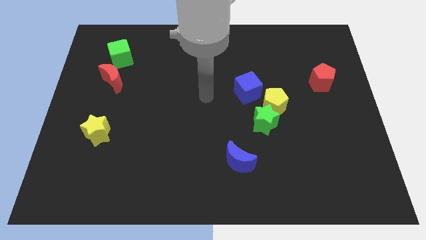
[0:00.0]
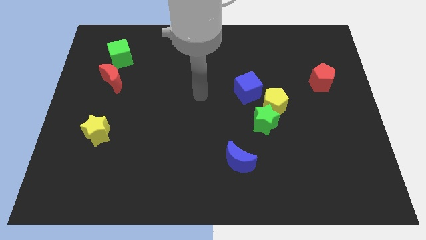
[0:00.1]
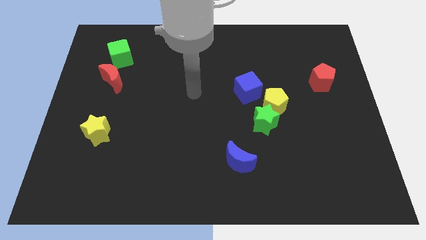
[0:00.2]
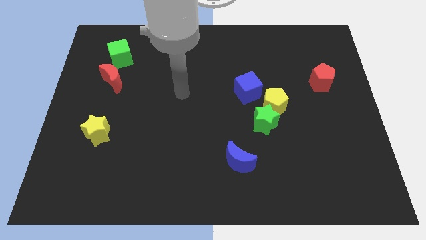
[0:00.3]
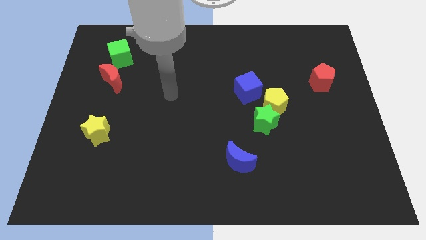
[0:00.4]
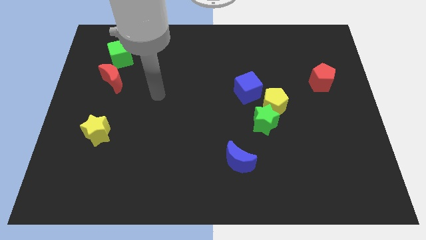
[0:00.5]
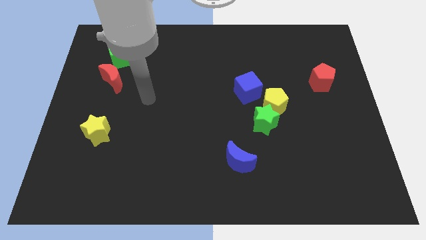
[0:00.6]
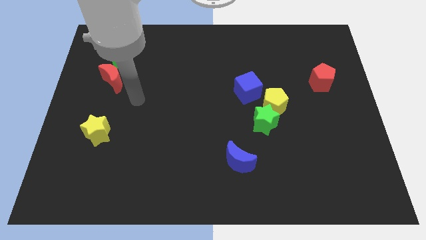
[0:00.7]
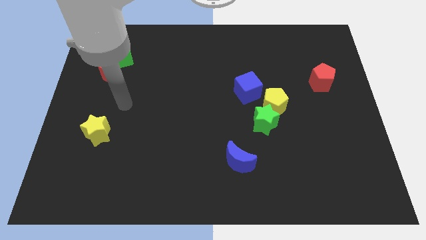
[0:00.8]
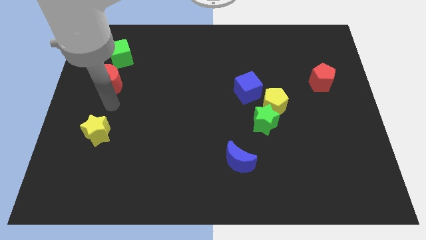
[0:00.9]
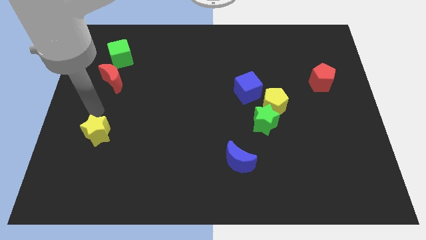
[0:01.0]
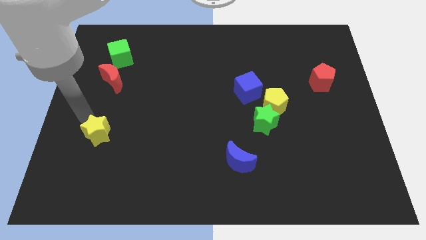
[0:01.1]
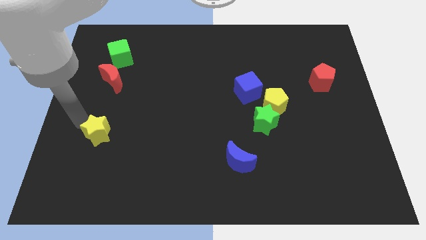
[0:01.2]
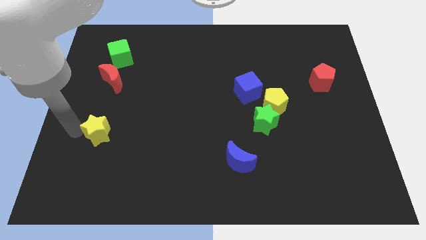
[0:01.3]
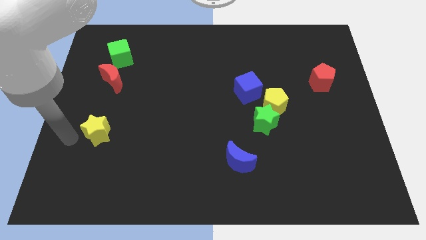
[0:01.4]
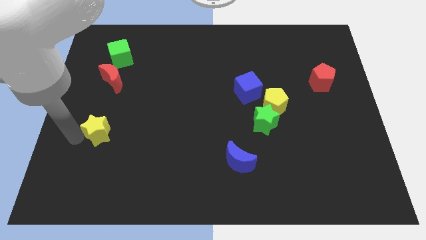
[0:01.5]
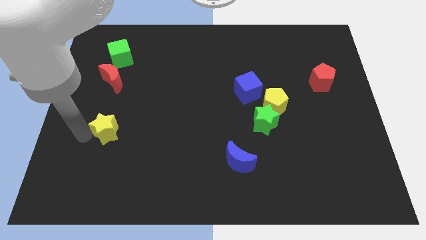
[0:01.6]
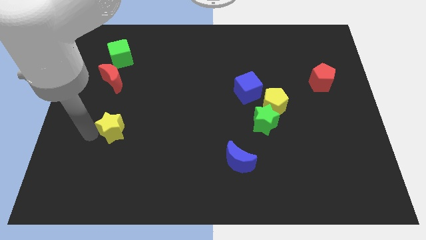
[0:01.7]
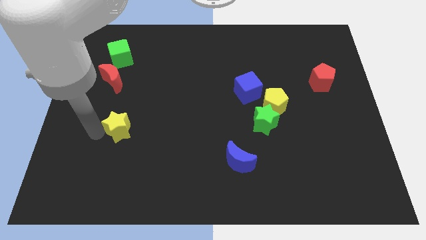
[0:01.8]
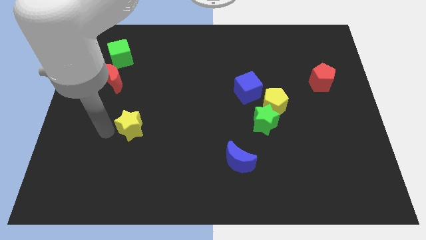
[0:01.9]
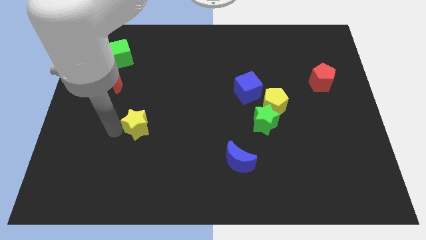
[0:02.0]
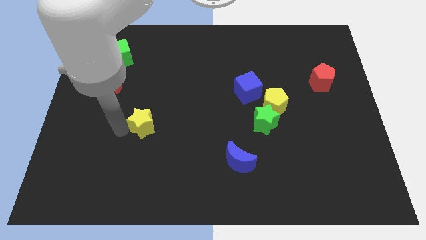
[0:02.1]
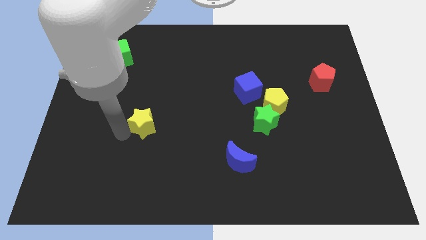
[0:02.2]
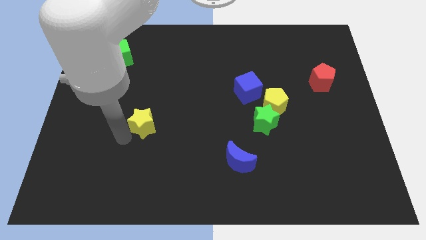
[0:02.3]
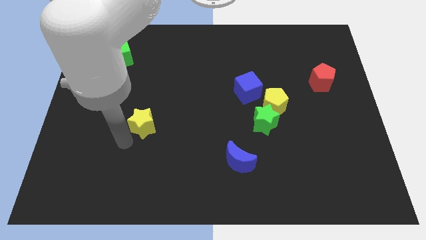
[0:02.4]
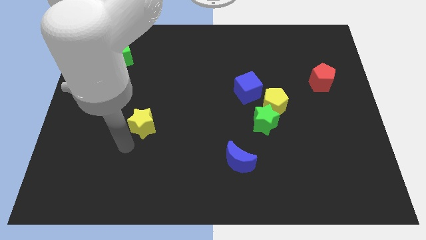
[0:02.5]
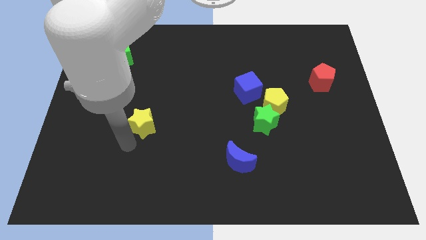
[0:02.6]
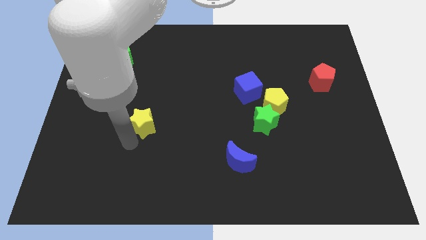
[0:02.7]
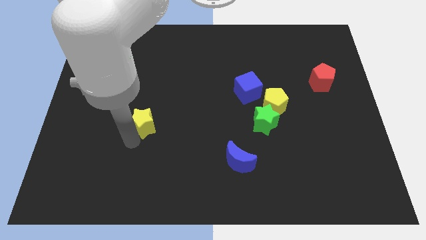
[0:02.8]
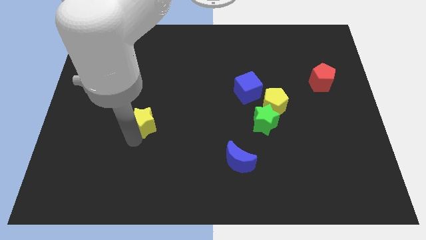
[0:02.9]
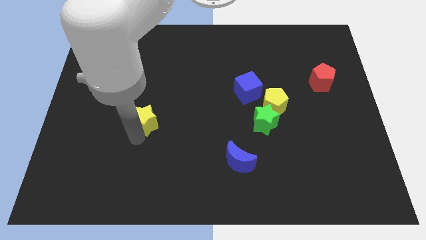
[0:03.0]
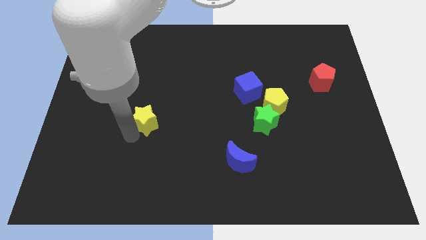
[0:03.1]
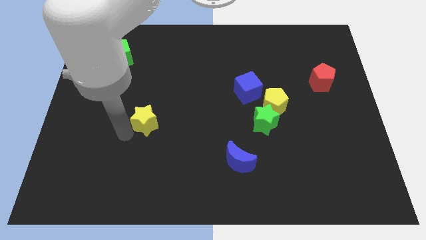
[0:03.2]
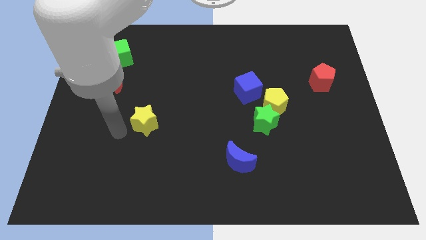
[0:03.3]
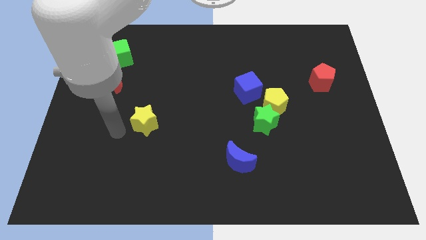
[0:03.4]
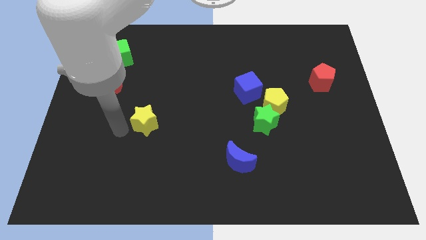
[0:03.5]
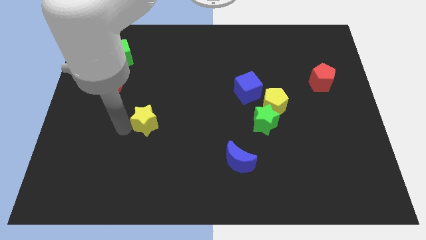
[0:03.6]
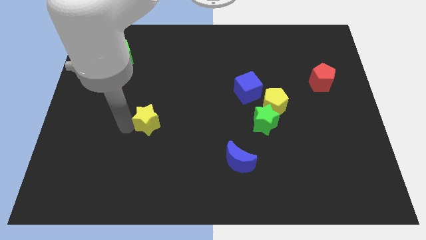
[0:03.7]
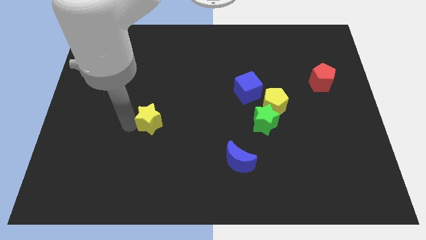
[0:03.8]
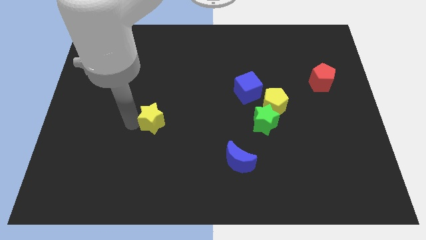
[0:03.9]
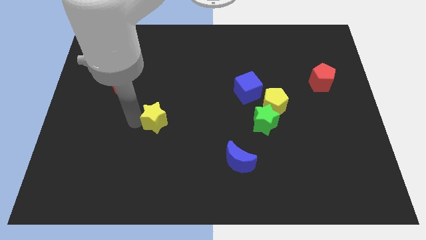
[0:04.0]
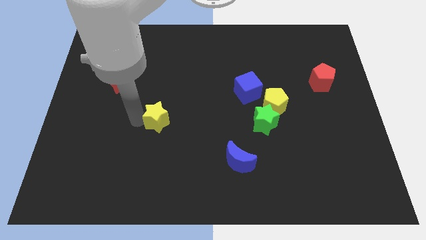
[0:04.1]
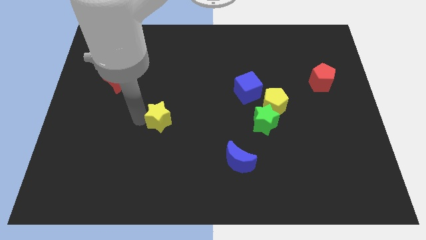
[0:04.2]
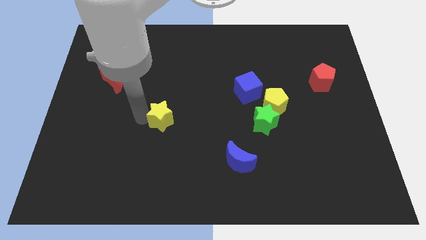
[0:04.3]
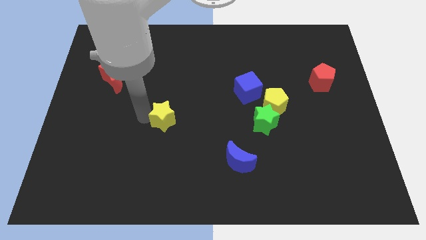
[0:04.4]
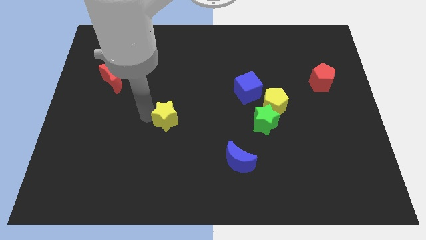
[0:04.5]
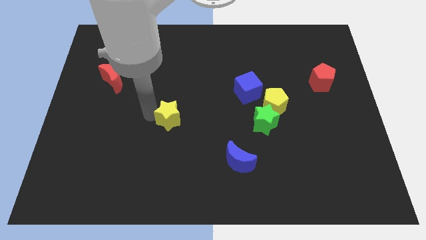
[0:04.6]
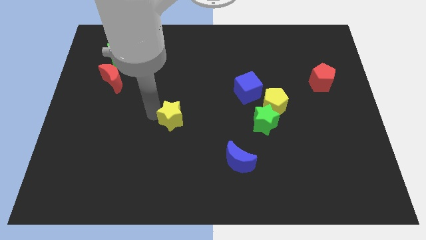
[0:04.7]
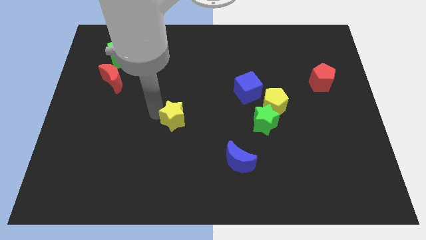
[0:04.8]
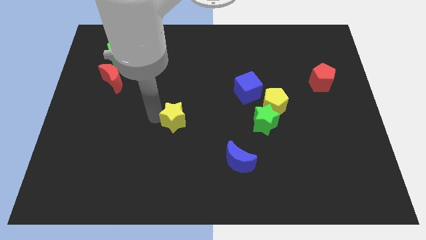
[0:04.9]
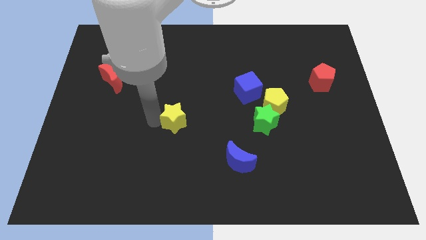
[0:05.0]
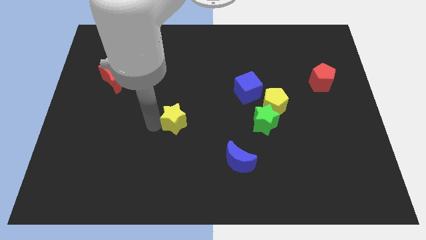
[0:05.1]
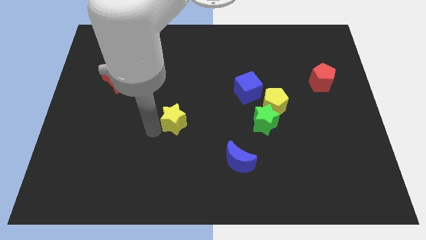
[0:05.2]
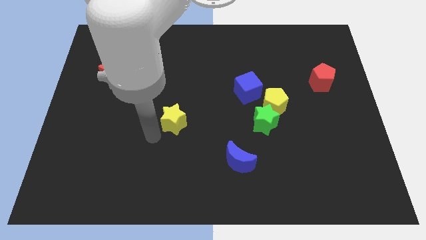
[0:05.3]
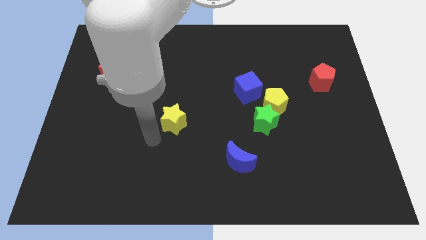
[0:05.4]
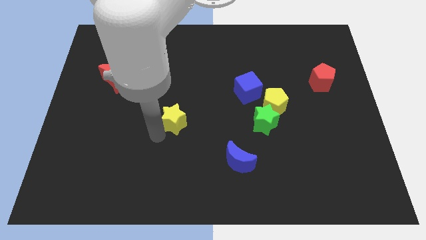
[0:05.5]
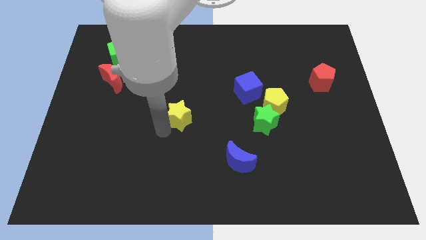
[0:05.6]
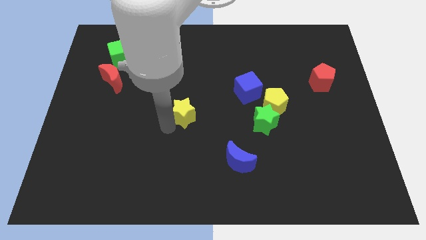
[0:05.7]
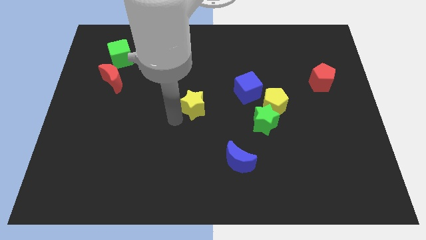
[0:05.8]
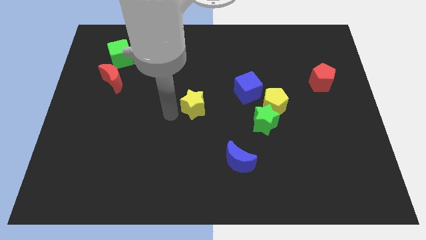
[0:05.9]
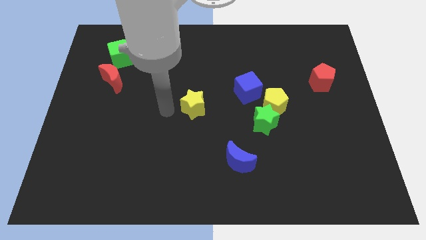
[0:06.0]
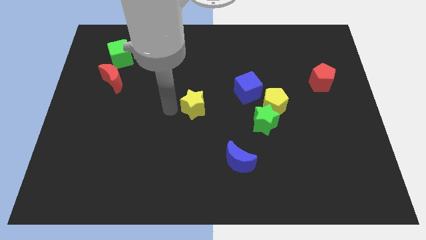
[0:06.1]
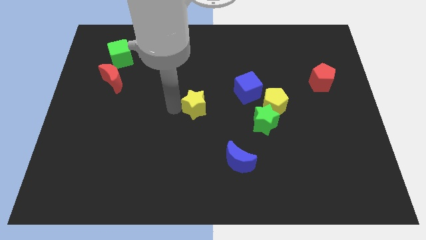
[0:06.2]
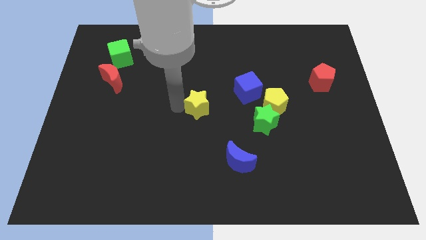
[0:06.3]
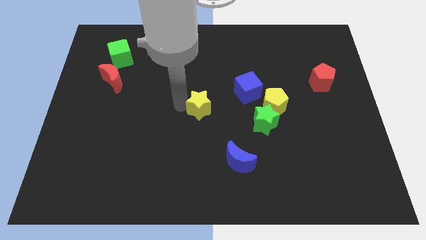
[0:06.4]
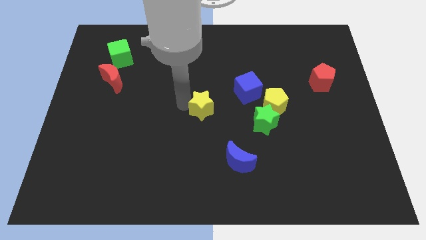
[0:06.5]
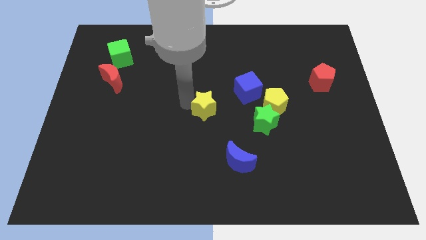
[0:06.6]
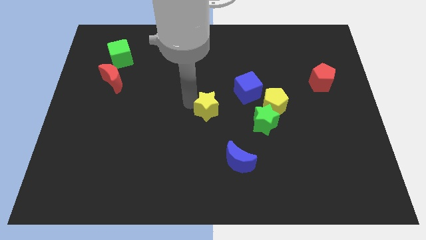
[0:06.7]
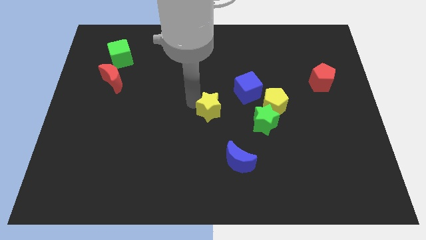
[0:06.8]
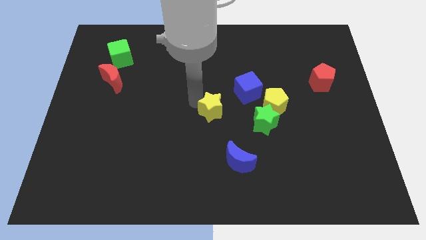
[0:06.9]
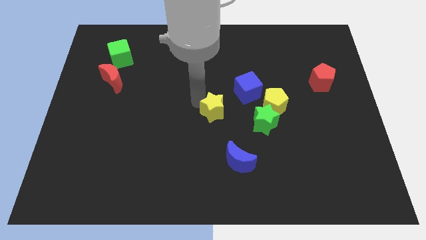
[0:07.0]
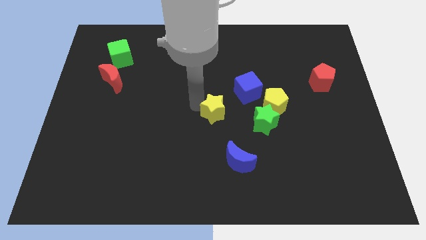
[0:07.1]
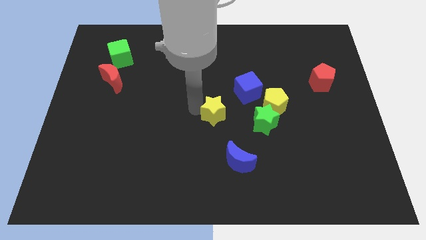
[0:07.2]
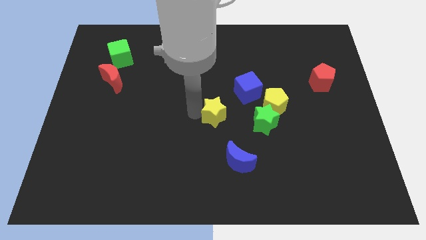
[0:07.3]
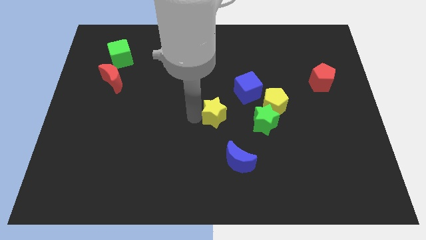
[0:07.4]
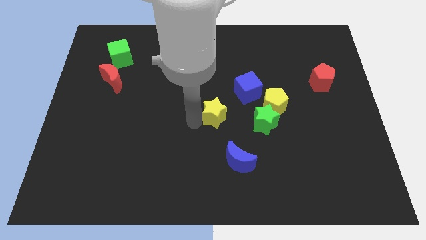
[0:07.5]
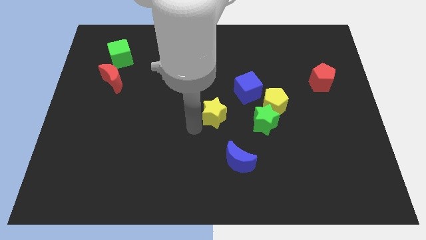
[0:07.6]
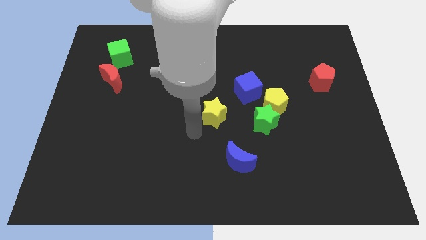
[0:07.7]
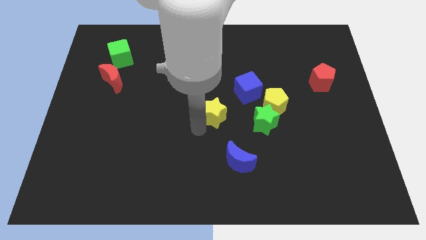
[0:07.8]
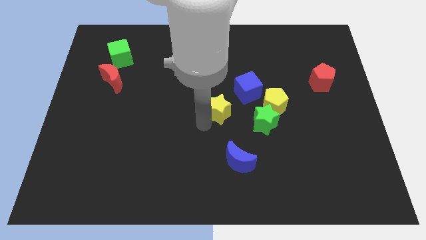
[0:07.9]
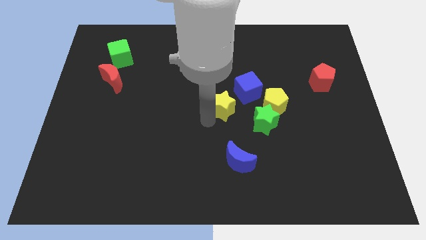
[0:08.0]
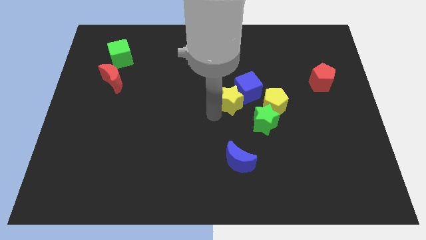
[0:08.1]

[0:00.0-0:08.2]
move the yellow star close to the blue cube
